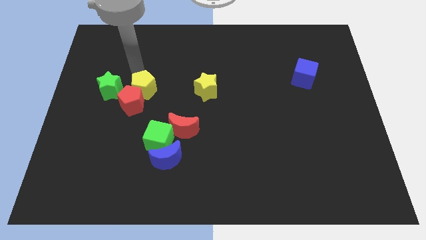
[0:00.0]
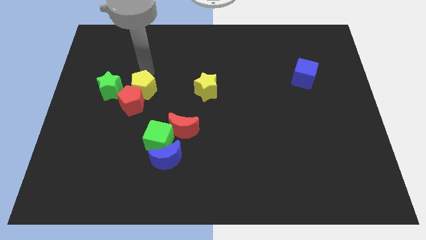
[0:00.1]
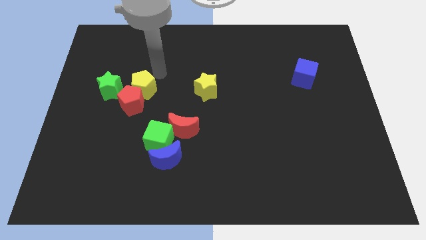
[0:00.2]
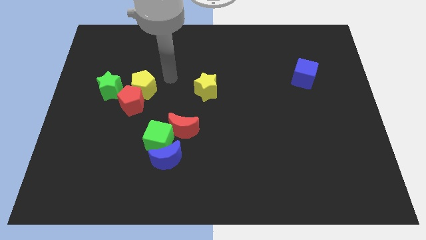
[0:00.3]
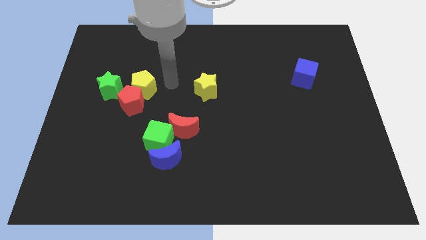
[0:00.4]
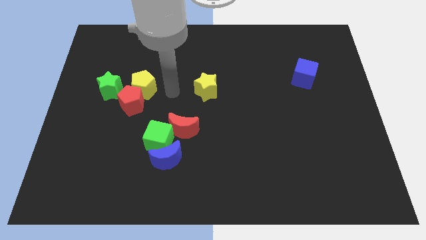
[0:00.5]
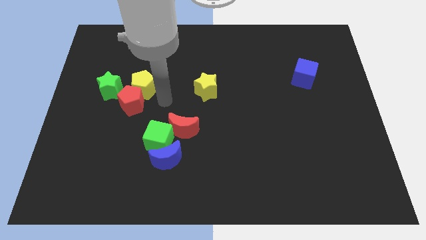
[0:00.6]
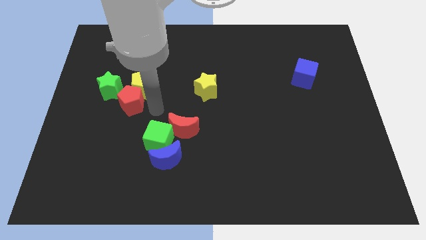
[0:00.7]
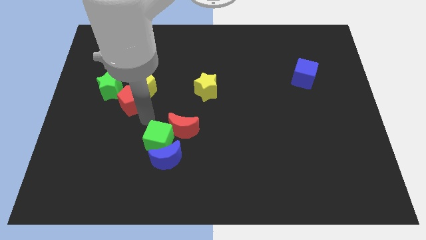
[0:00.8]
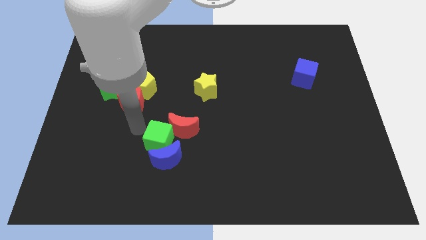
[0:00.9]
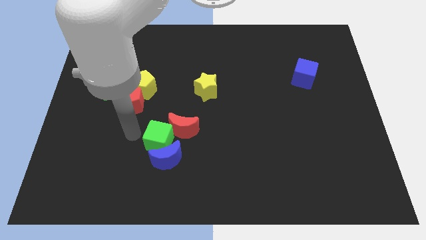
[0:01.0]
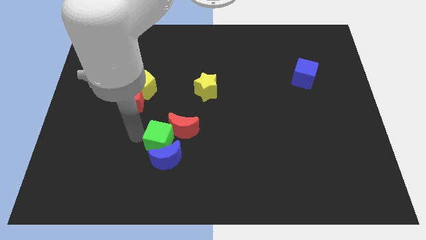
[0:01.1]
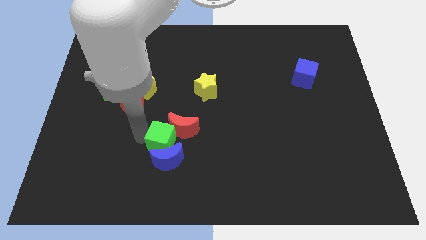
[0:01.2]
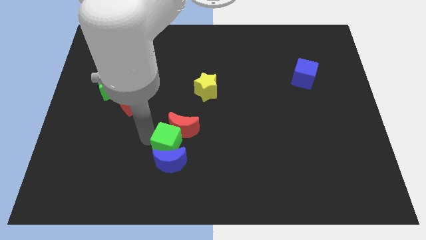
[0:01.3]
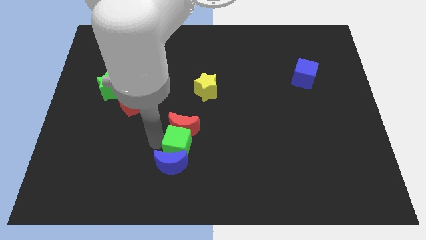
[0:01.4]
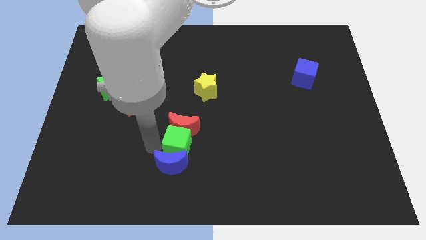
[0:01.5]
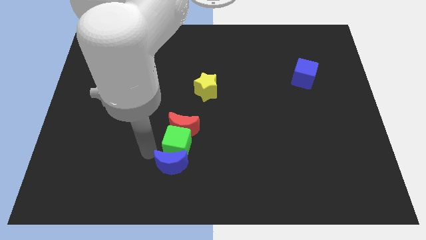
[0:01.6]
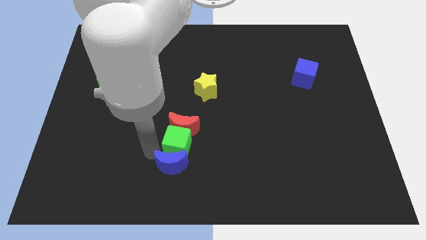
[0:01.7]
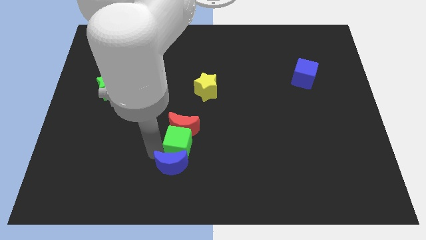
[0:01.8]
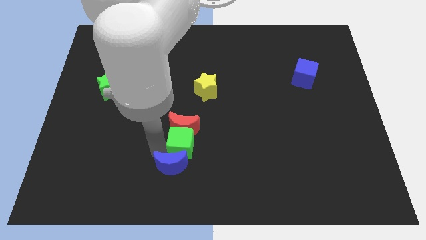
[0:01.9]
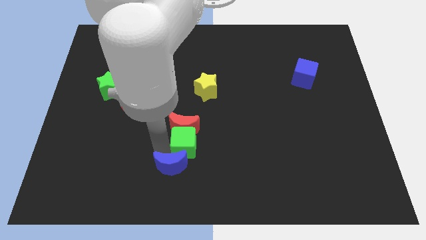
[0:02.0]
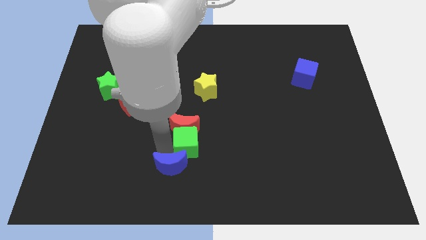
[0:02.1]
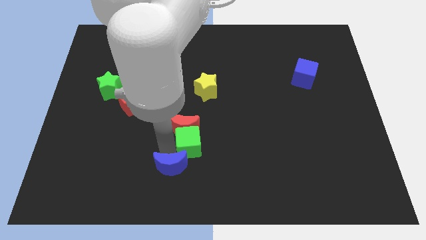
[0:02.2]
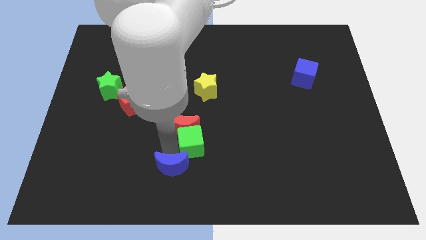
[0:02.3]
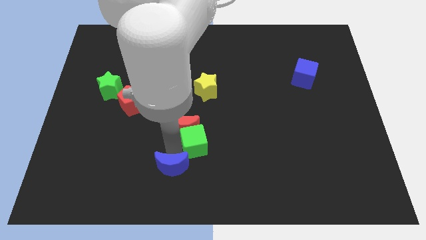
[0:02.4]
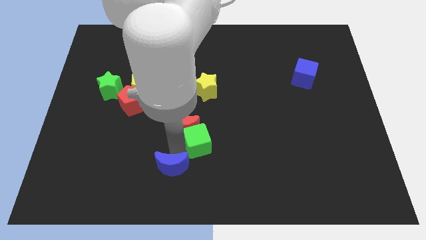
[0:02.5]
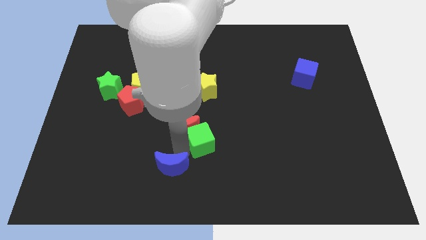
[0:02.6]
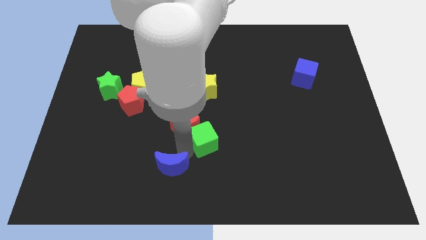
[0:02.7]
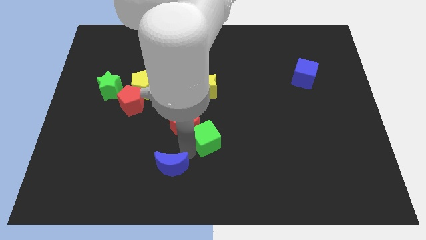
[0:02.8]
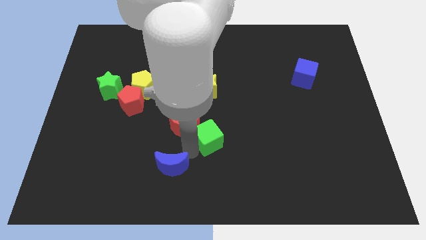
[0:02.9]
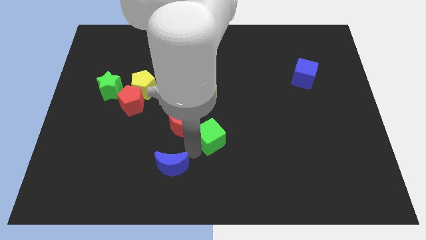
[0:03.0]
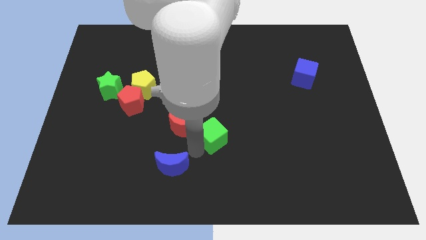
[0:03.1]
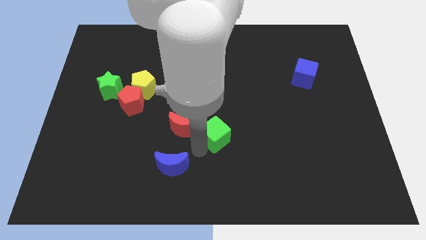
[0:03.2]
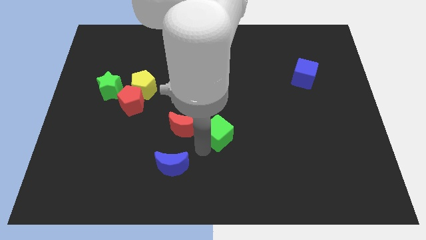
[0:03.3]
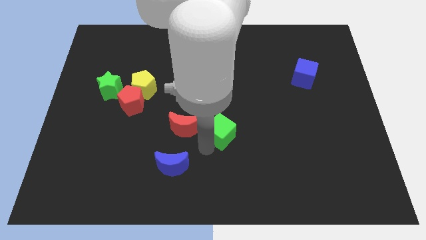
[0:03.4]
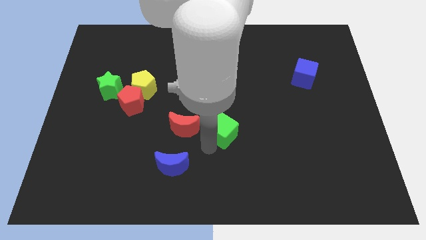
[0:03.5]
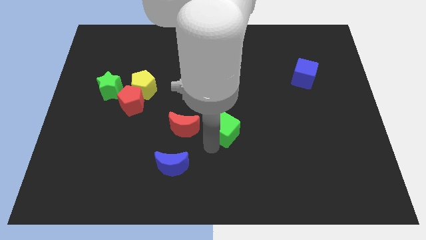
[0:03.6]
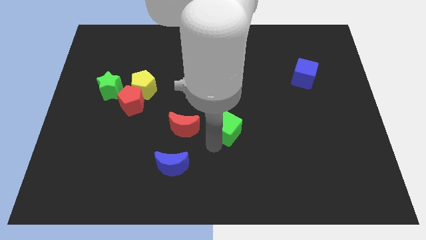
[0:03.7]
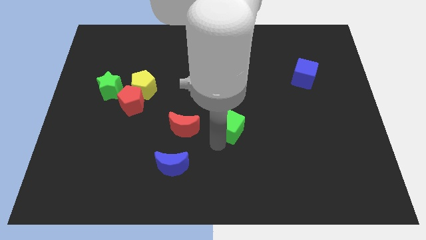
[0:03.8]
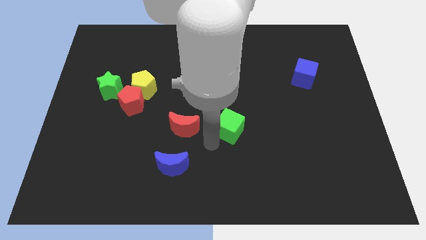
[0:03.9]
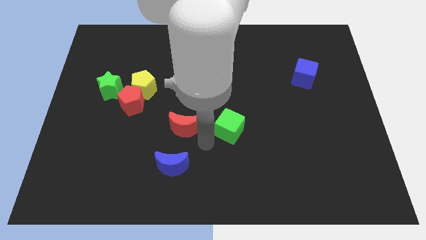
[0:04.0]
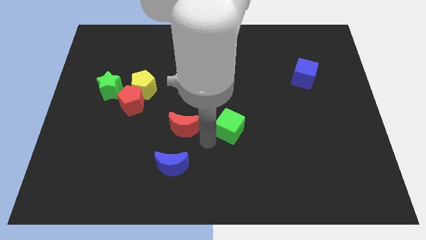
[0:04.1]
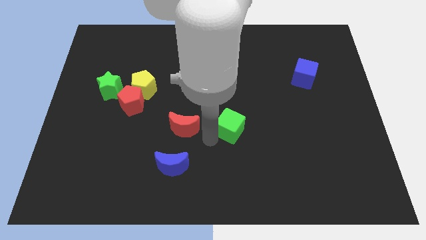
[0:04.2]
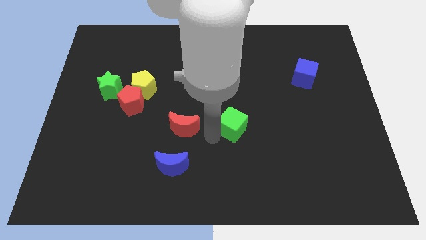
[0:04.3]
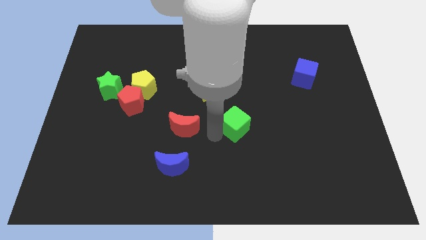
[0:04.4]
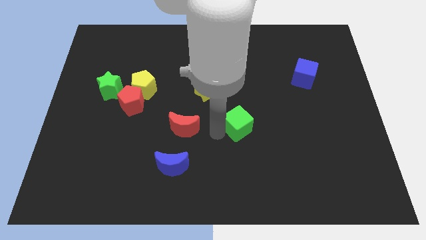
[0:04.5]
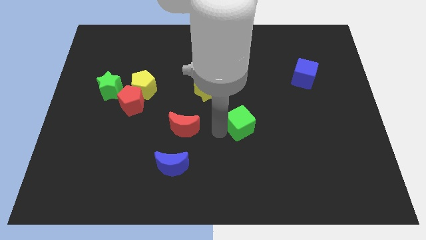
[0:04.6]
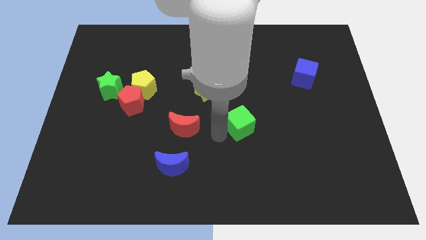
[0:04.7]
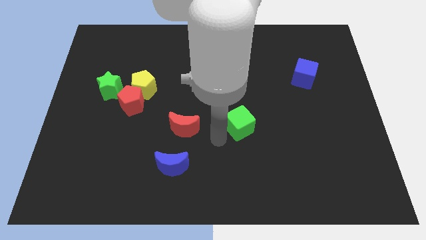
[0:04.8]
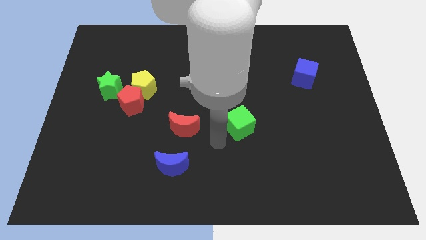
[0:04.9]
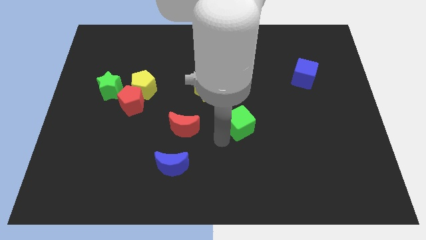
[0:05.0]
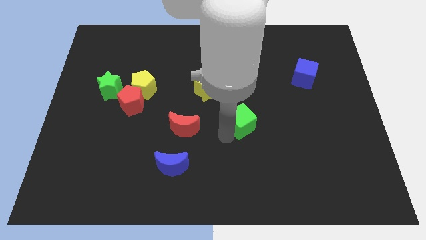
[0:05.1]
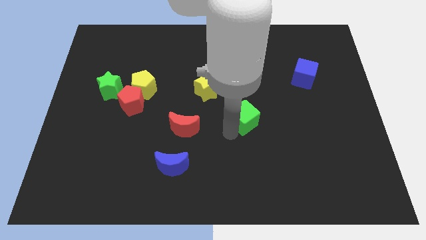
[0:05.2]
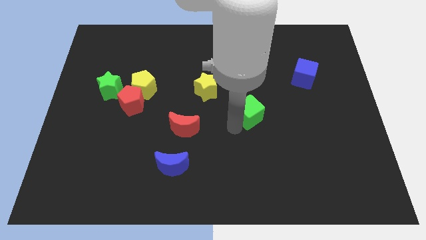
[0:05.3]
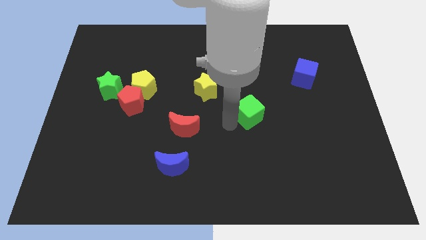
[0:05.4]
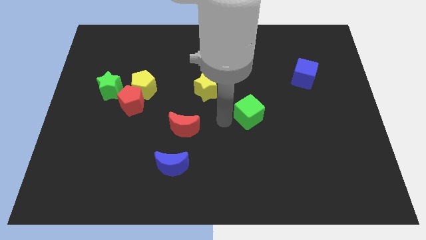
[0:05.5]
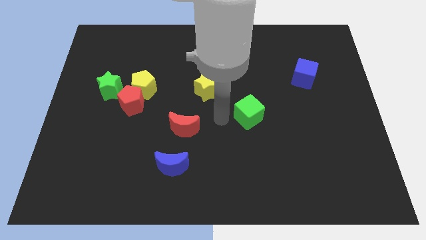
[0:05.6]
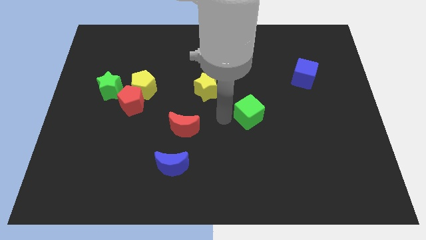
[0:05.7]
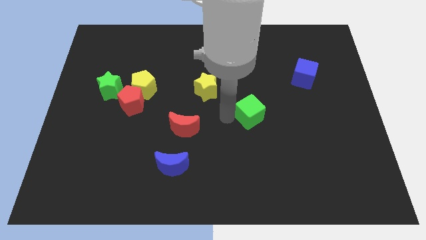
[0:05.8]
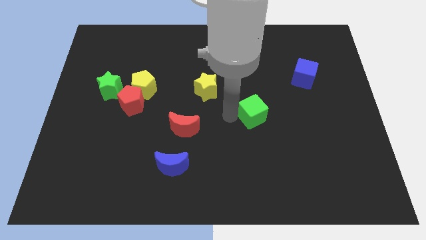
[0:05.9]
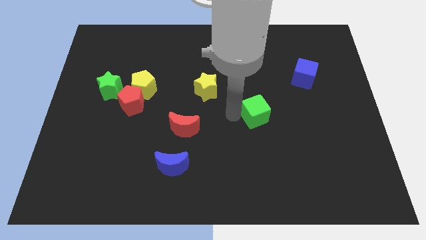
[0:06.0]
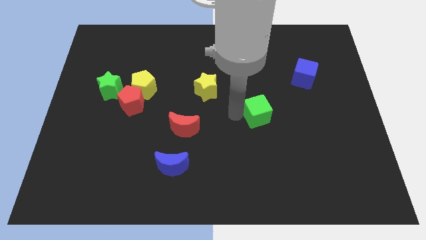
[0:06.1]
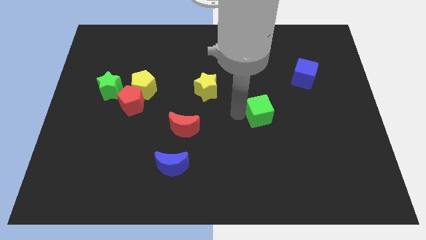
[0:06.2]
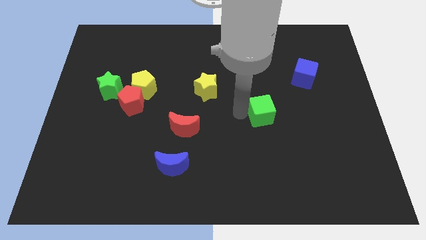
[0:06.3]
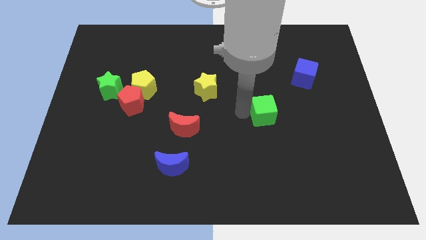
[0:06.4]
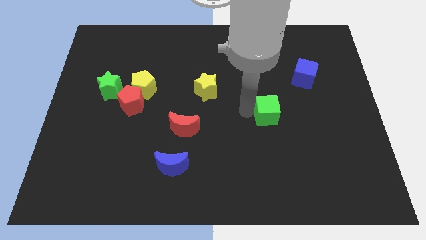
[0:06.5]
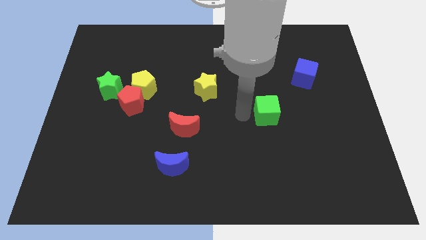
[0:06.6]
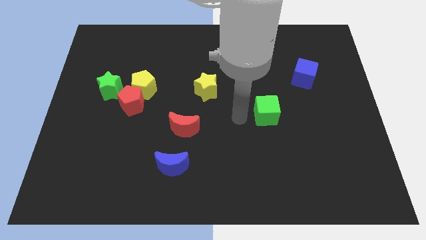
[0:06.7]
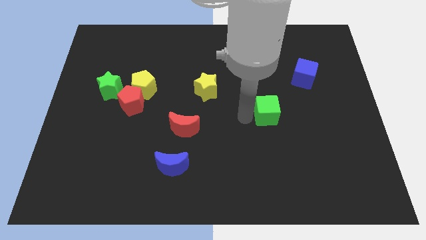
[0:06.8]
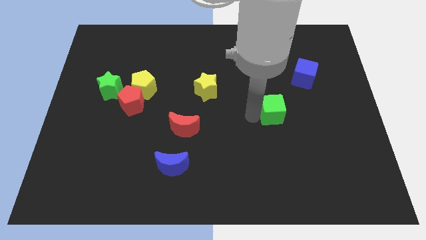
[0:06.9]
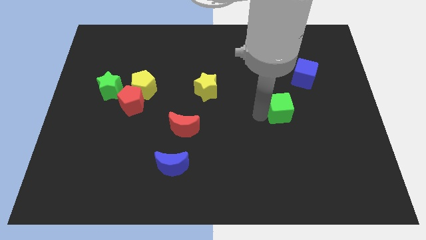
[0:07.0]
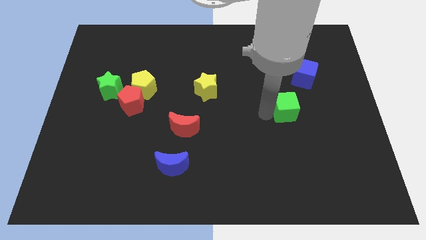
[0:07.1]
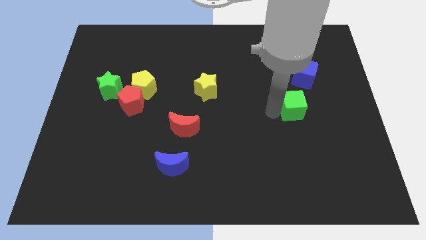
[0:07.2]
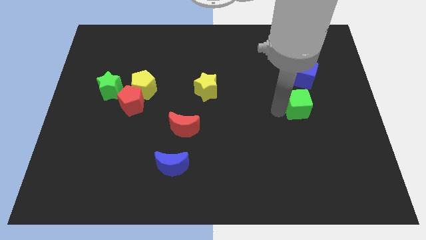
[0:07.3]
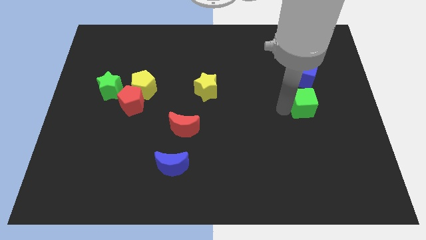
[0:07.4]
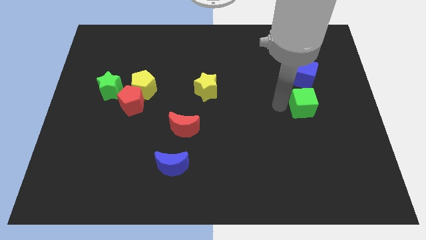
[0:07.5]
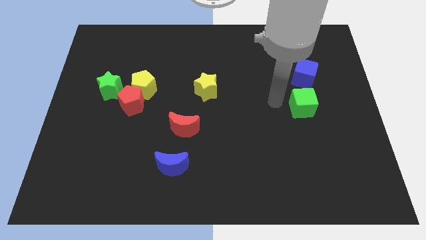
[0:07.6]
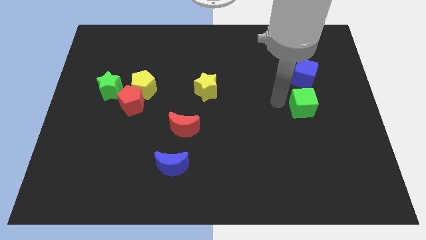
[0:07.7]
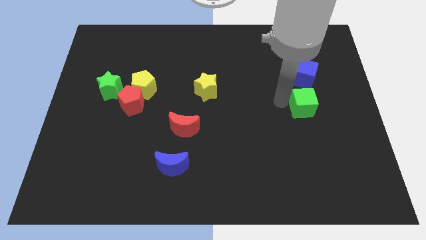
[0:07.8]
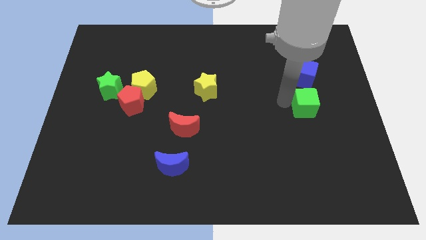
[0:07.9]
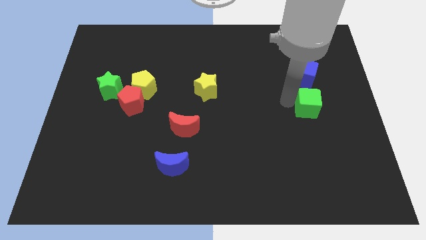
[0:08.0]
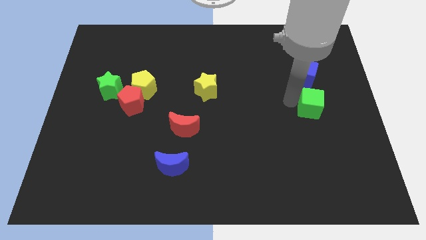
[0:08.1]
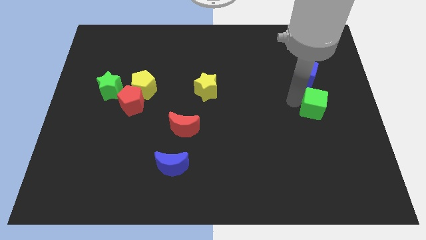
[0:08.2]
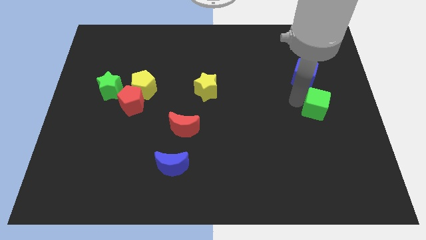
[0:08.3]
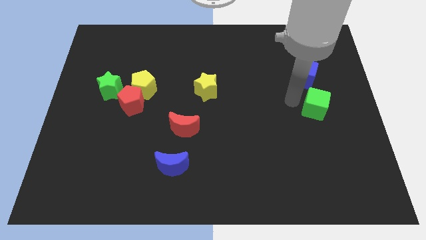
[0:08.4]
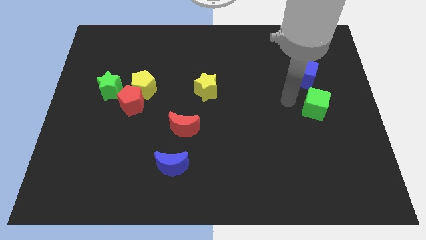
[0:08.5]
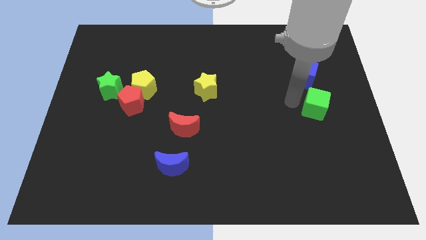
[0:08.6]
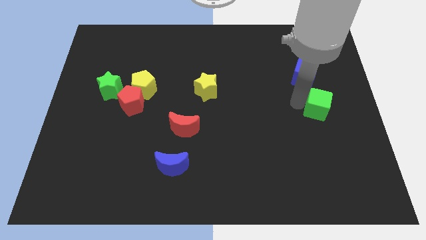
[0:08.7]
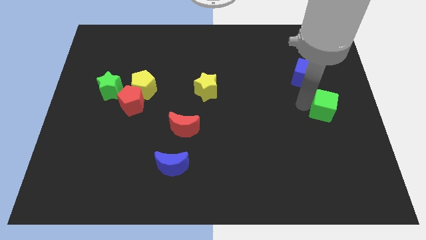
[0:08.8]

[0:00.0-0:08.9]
move the green cube to the right side
